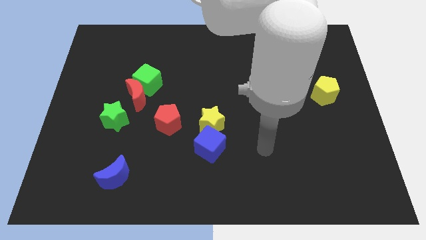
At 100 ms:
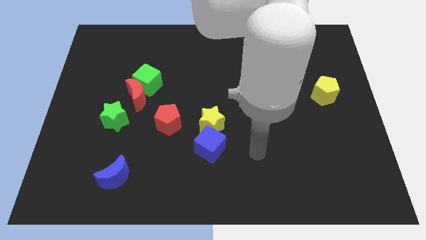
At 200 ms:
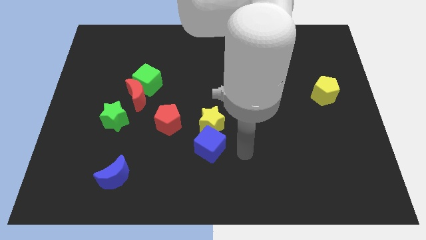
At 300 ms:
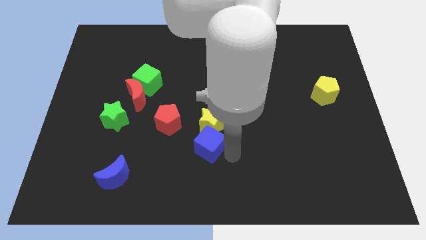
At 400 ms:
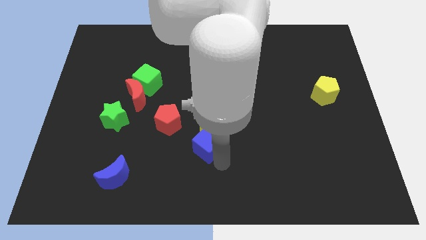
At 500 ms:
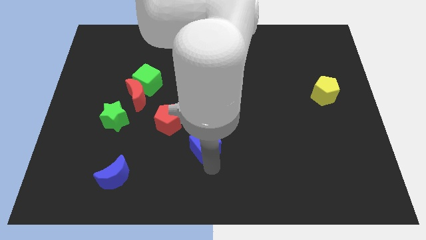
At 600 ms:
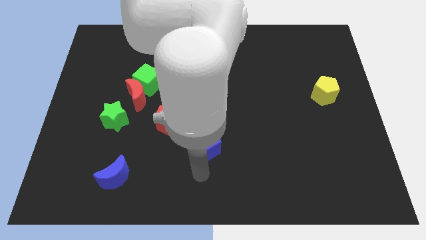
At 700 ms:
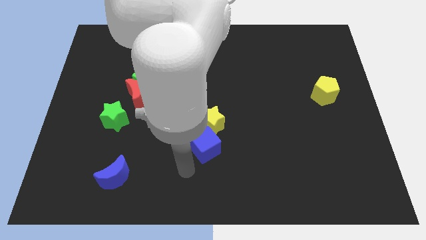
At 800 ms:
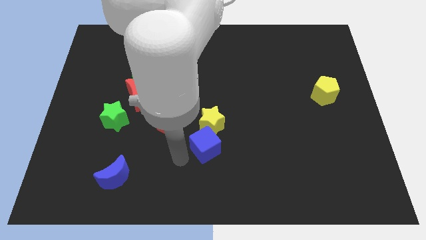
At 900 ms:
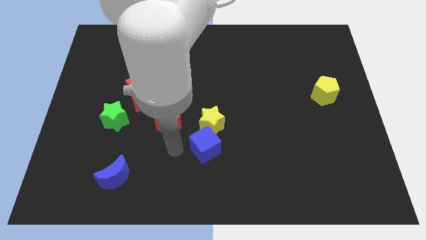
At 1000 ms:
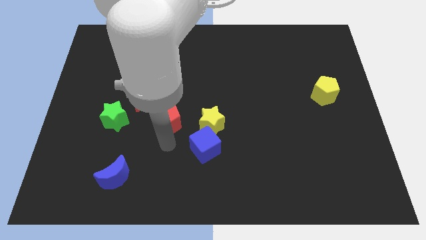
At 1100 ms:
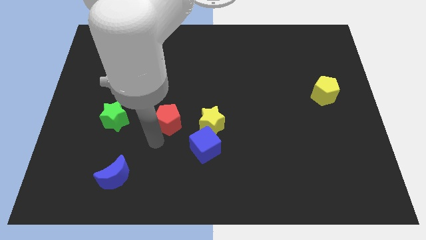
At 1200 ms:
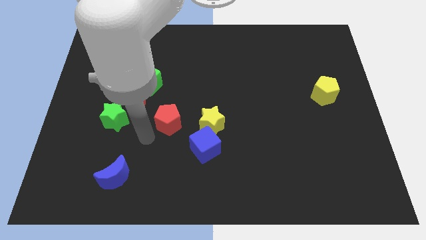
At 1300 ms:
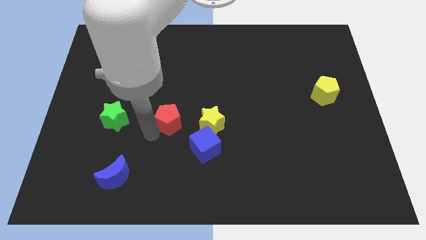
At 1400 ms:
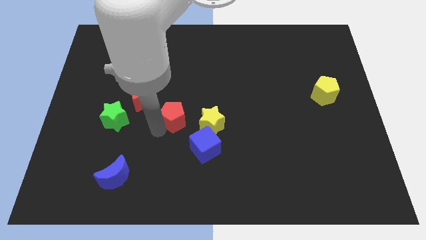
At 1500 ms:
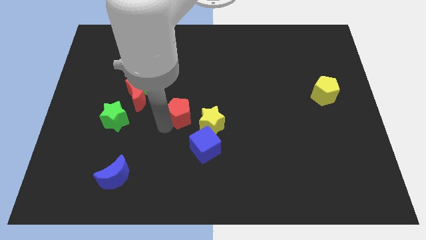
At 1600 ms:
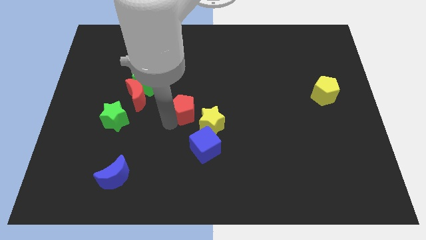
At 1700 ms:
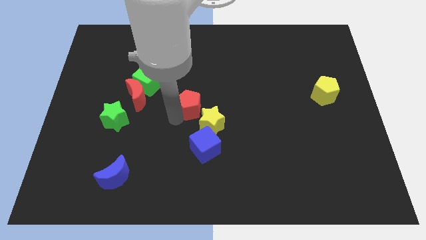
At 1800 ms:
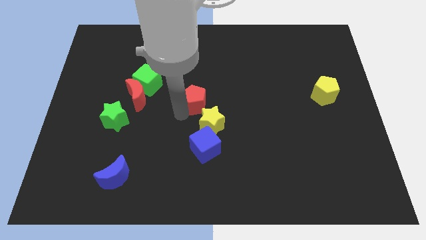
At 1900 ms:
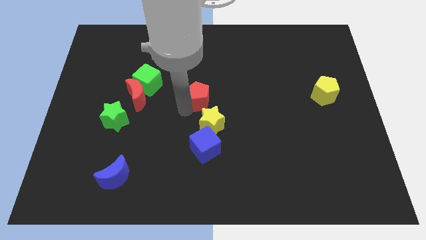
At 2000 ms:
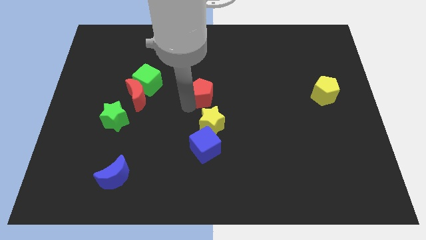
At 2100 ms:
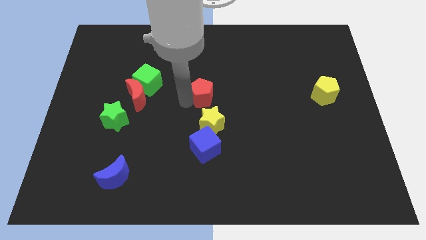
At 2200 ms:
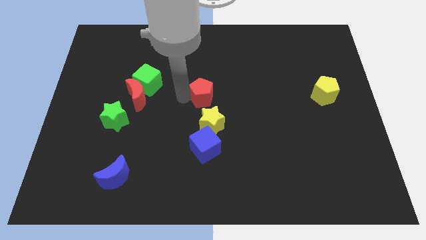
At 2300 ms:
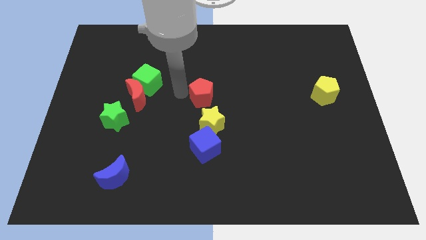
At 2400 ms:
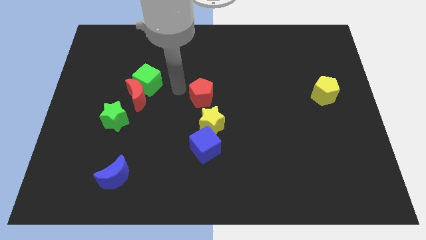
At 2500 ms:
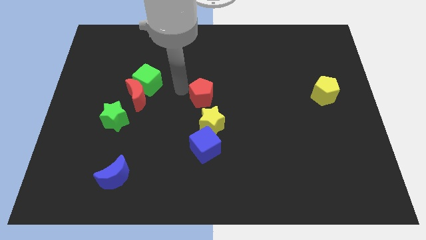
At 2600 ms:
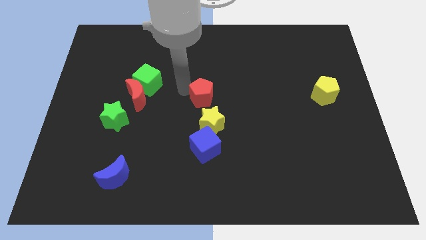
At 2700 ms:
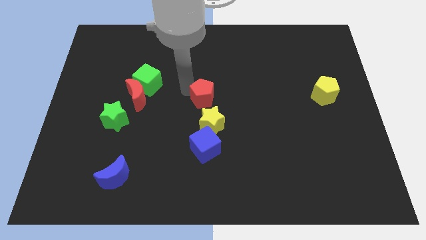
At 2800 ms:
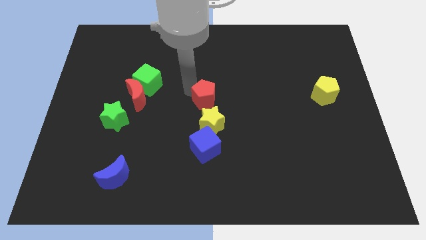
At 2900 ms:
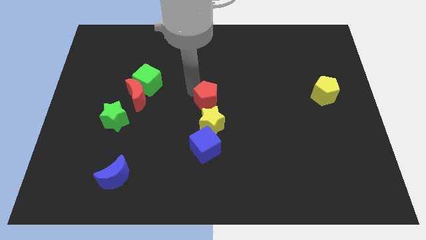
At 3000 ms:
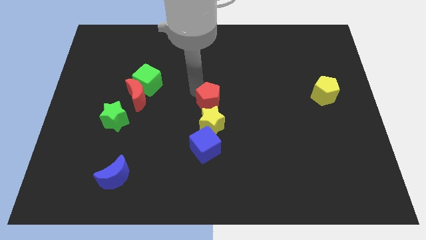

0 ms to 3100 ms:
push the red pentagon a bit right

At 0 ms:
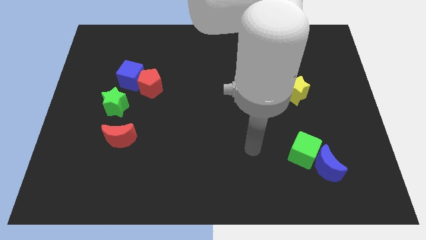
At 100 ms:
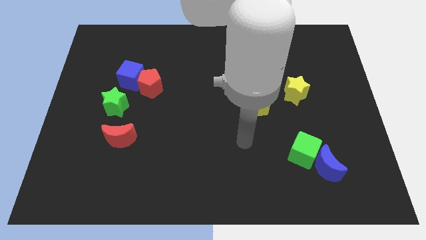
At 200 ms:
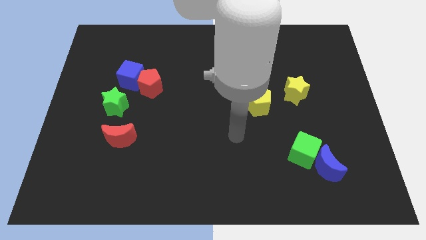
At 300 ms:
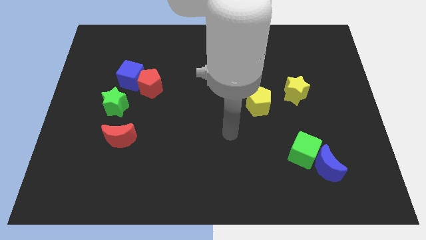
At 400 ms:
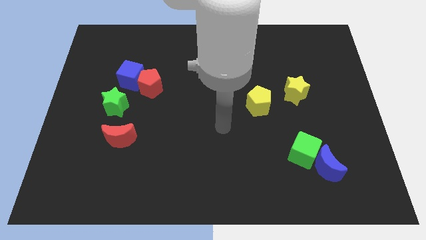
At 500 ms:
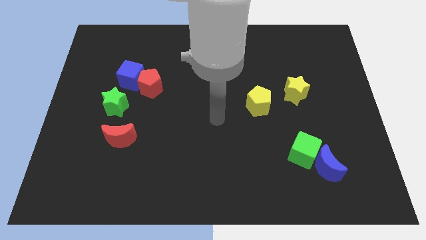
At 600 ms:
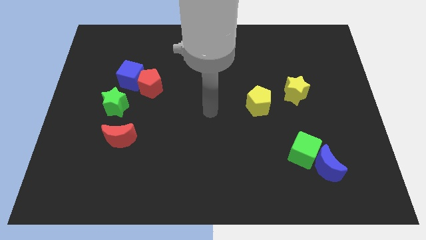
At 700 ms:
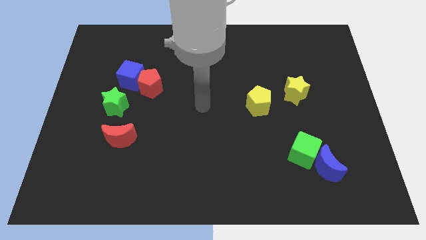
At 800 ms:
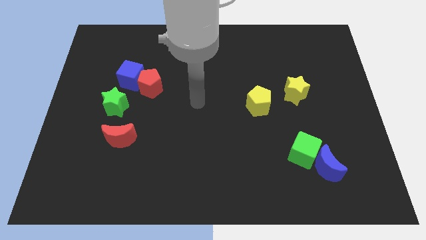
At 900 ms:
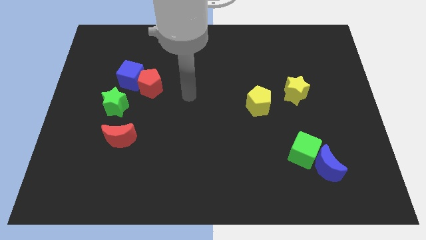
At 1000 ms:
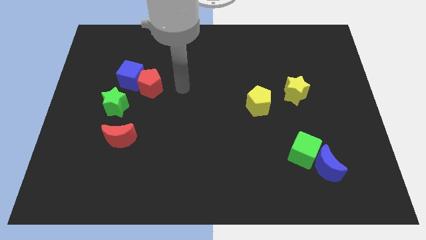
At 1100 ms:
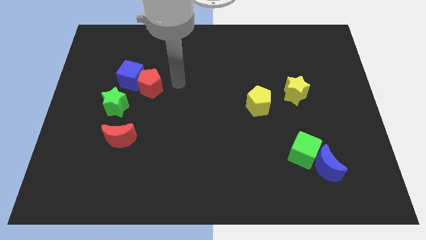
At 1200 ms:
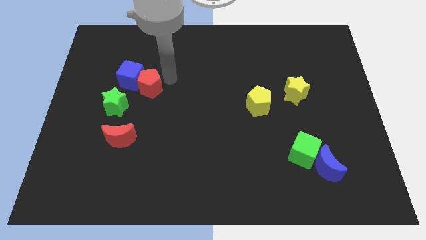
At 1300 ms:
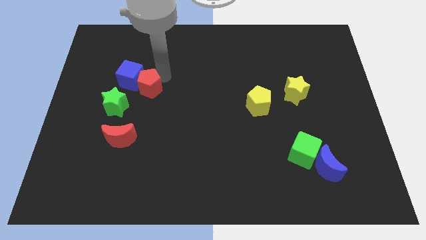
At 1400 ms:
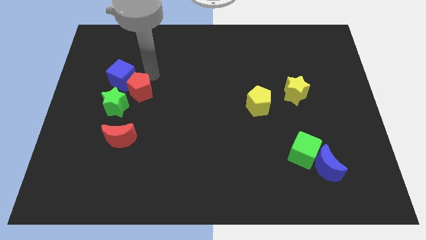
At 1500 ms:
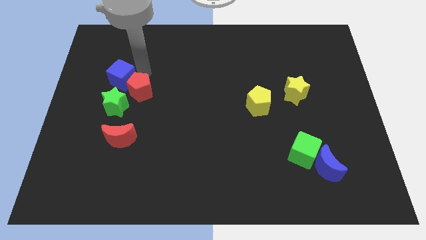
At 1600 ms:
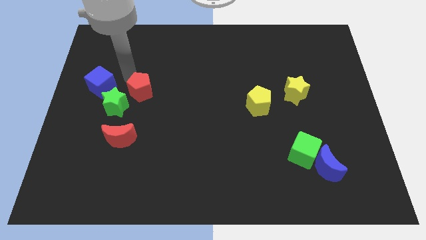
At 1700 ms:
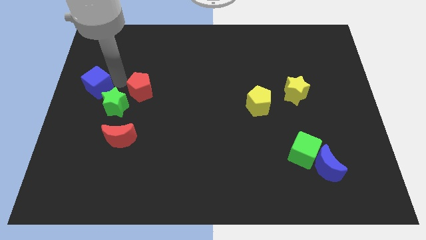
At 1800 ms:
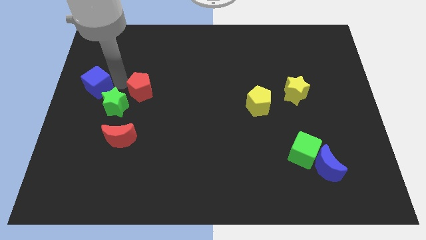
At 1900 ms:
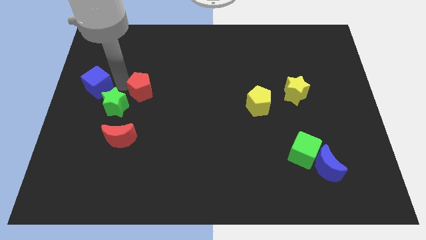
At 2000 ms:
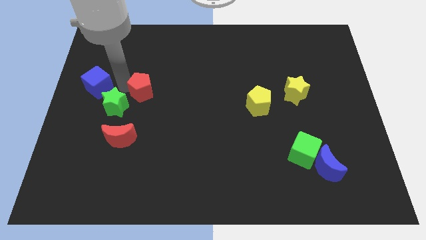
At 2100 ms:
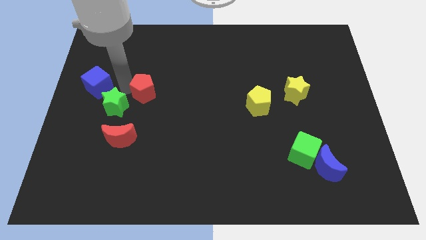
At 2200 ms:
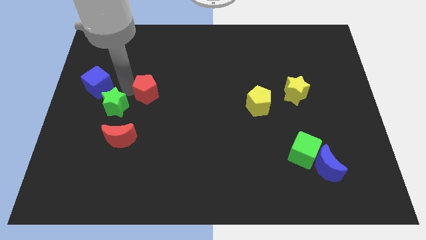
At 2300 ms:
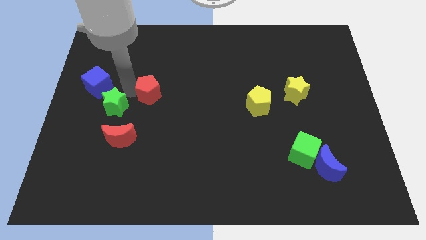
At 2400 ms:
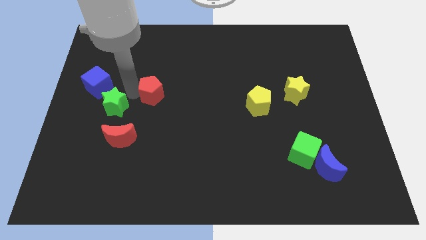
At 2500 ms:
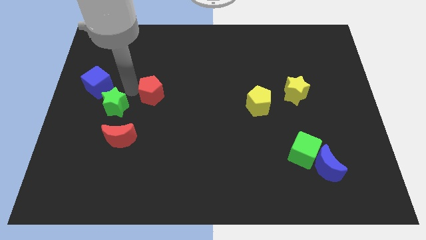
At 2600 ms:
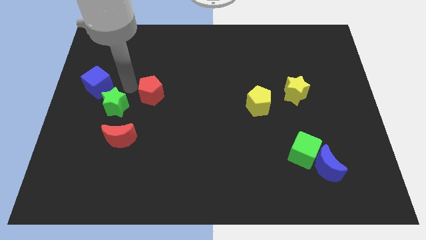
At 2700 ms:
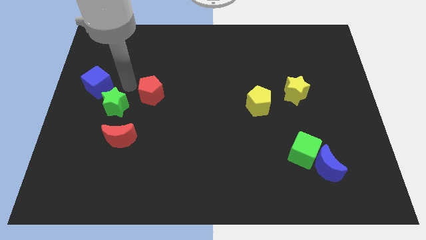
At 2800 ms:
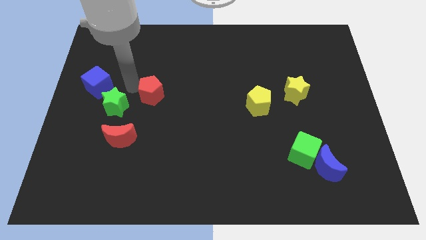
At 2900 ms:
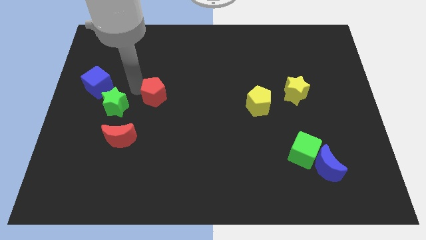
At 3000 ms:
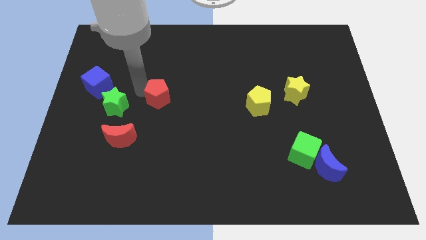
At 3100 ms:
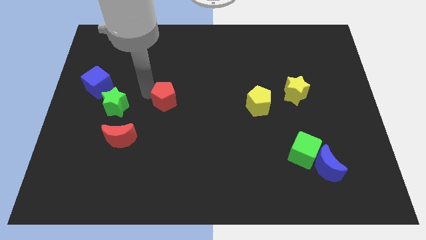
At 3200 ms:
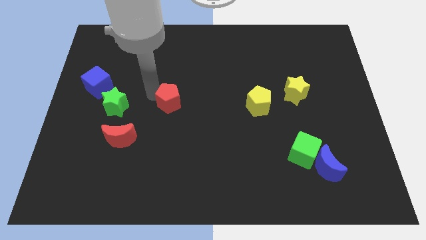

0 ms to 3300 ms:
push the red pentagon downwards and to the right a bit

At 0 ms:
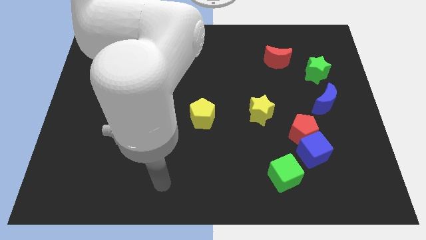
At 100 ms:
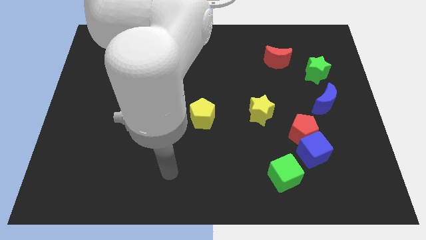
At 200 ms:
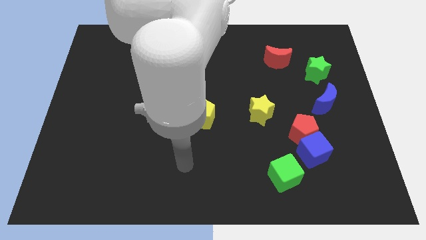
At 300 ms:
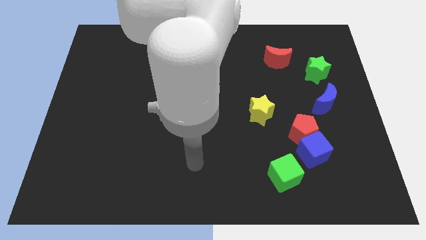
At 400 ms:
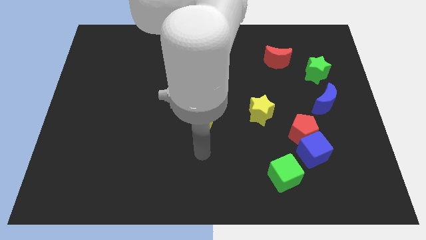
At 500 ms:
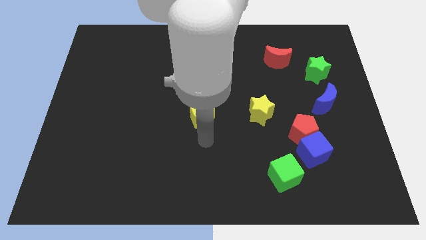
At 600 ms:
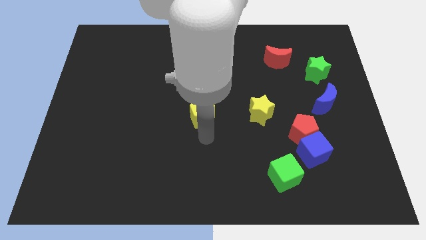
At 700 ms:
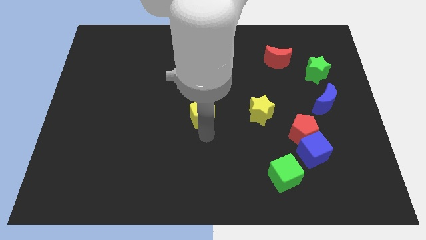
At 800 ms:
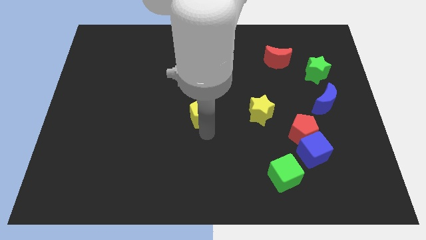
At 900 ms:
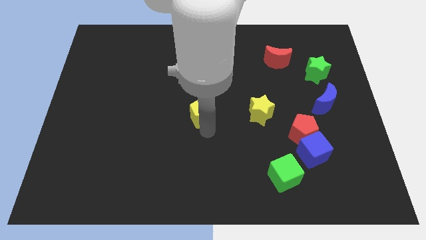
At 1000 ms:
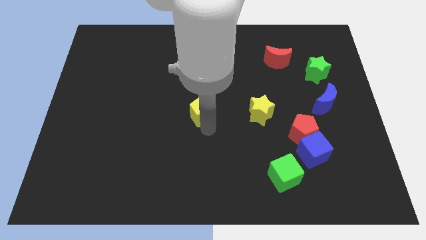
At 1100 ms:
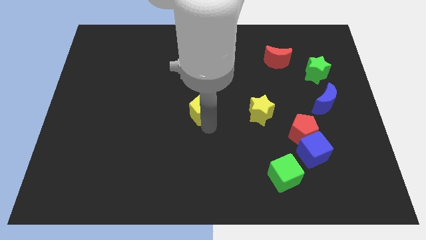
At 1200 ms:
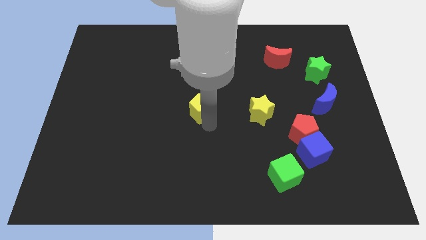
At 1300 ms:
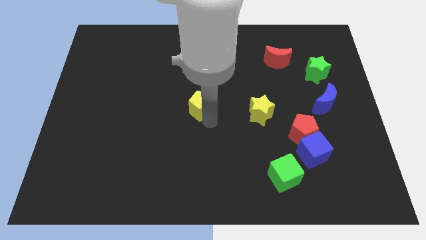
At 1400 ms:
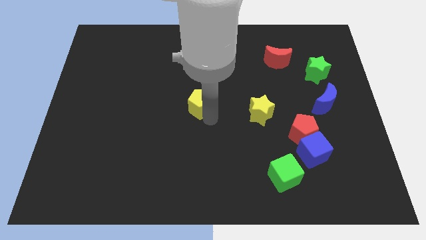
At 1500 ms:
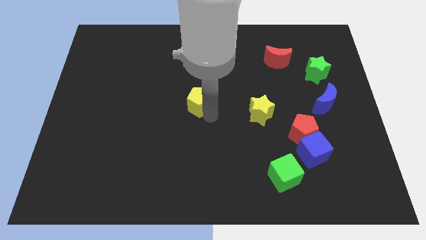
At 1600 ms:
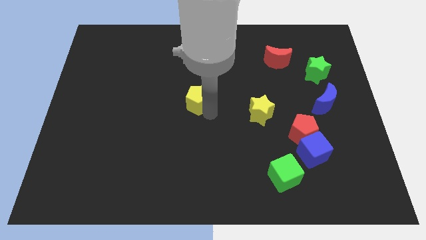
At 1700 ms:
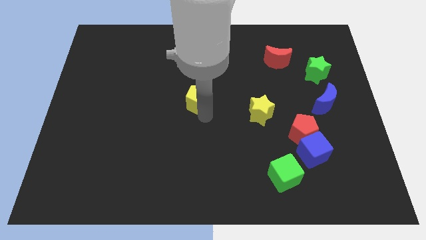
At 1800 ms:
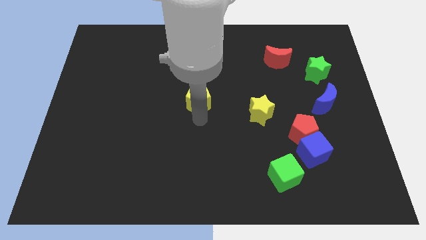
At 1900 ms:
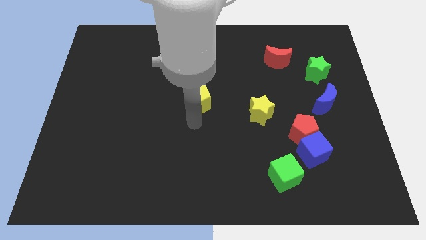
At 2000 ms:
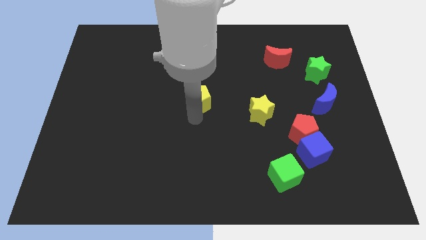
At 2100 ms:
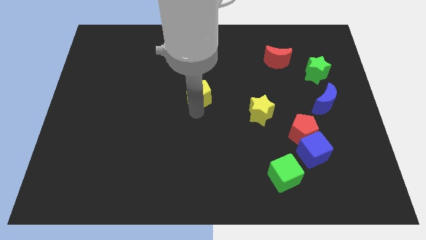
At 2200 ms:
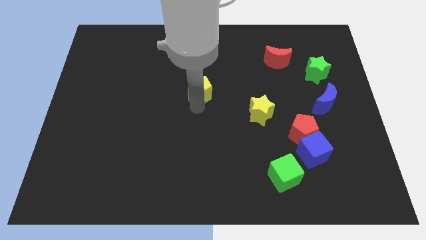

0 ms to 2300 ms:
slightly move the yellow pentagon upwards

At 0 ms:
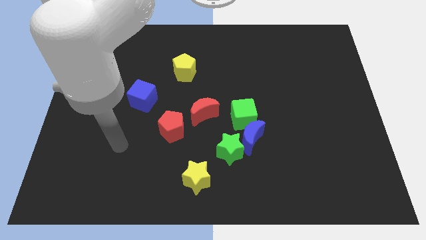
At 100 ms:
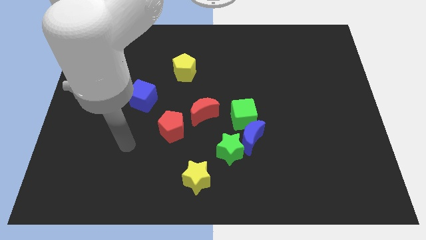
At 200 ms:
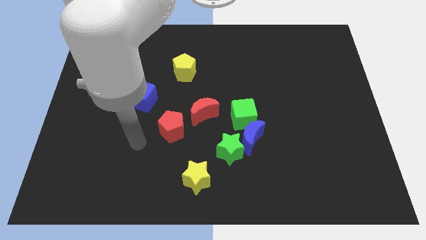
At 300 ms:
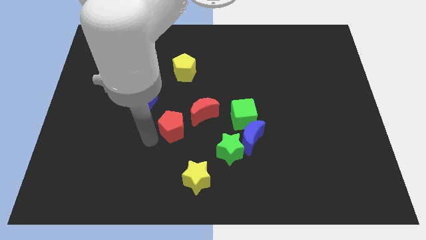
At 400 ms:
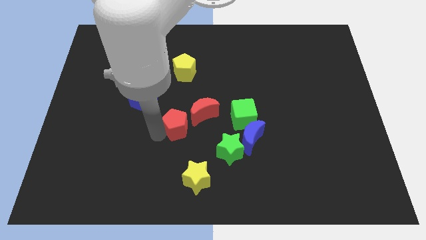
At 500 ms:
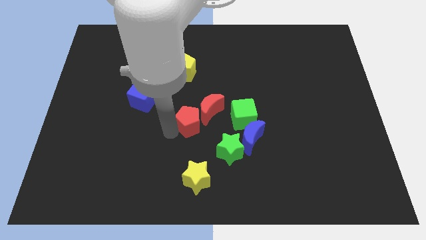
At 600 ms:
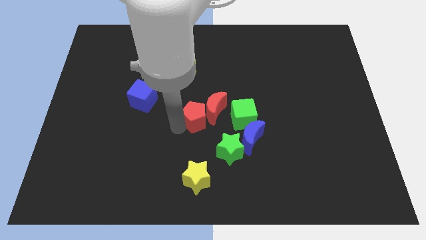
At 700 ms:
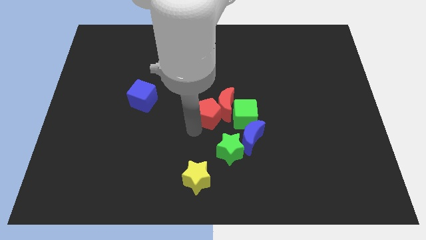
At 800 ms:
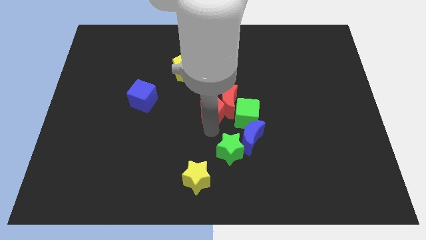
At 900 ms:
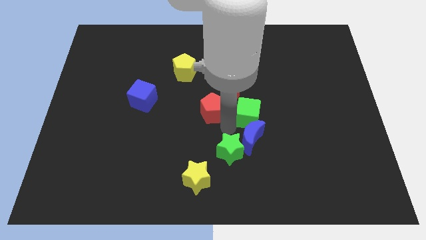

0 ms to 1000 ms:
move the red moon a little bit up and then right
